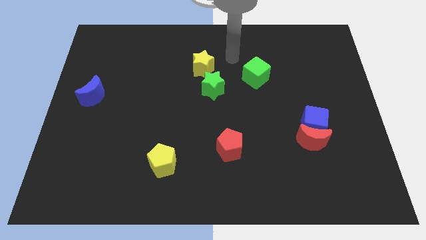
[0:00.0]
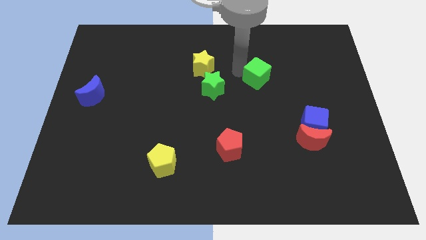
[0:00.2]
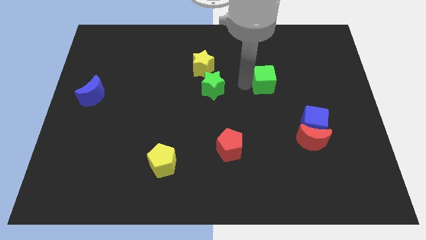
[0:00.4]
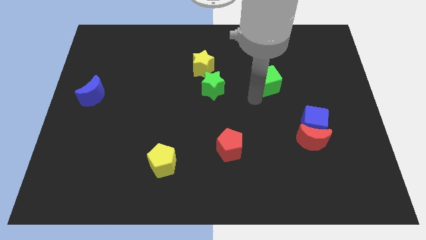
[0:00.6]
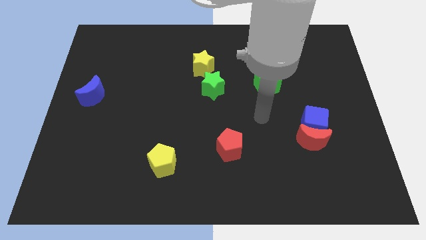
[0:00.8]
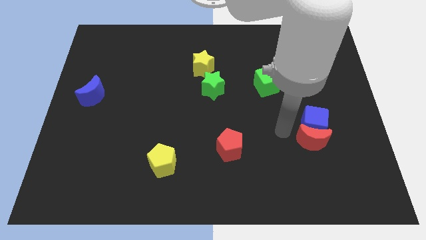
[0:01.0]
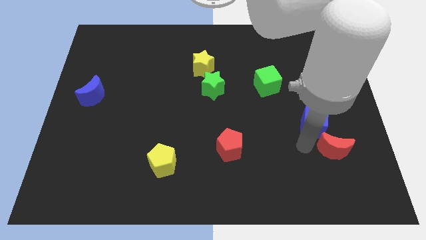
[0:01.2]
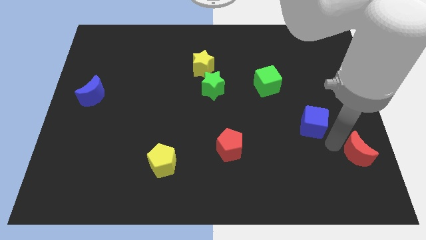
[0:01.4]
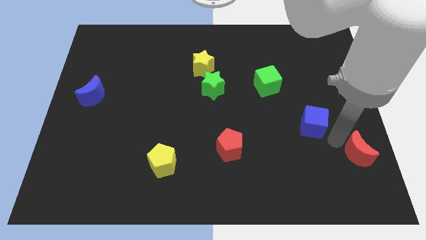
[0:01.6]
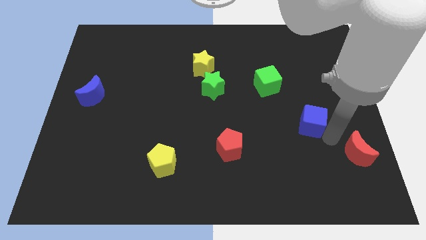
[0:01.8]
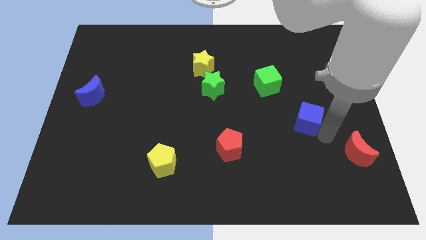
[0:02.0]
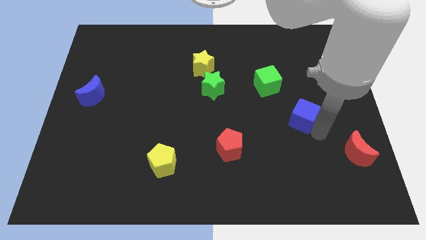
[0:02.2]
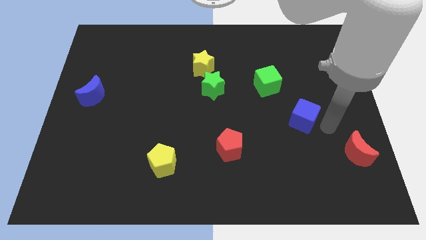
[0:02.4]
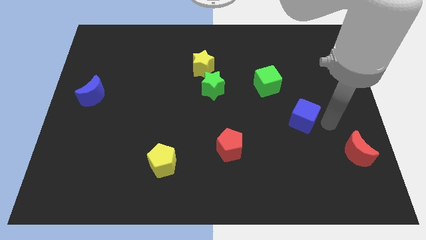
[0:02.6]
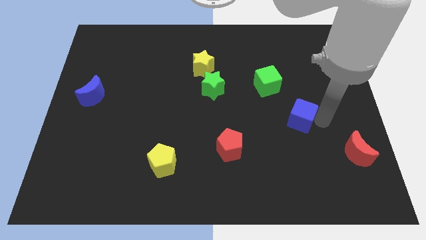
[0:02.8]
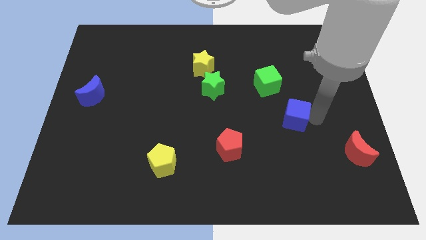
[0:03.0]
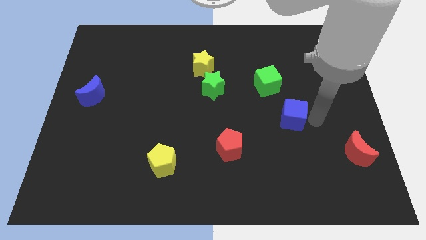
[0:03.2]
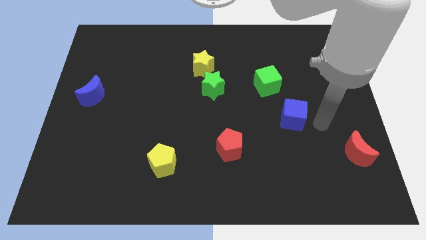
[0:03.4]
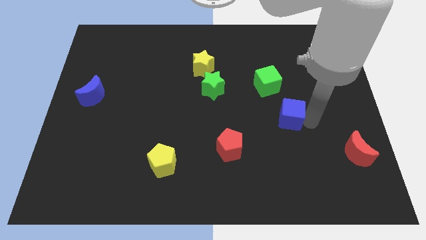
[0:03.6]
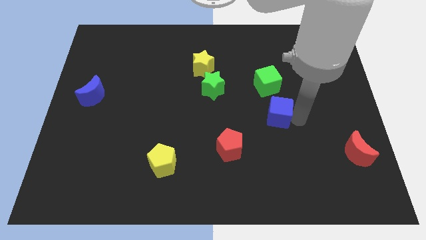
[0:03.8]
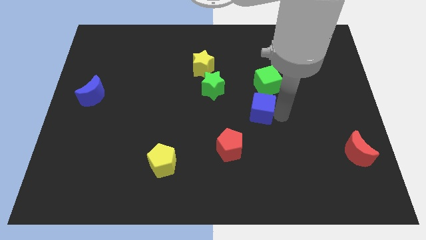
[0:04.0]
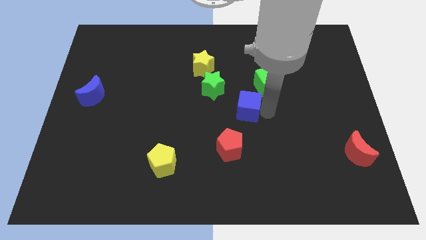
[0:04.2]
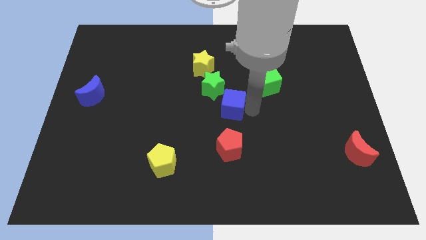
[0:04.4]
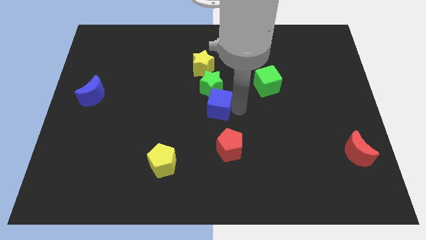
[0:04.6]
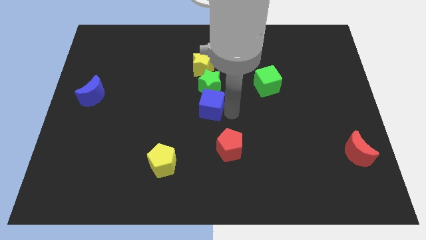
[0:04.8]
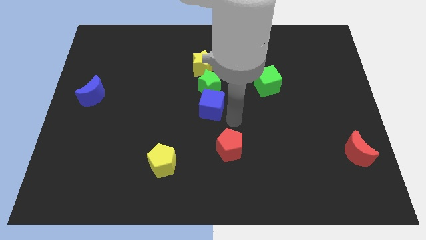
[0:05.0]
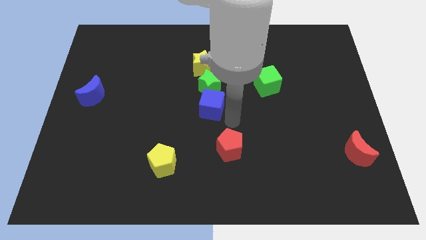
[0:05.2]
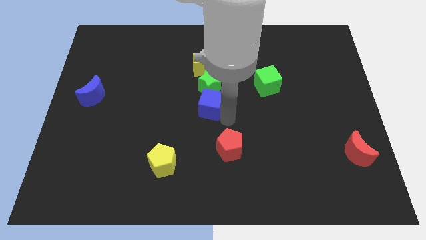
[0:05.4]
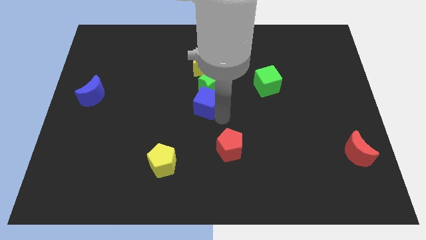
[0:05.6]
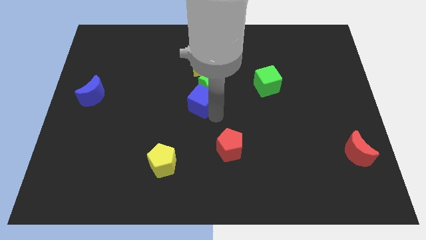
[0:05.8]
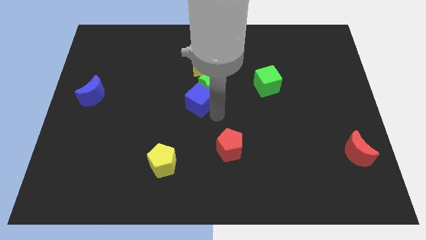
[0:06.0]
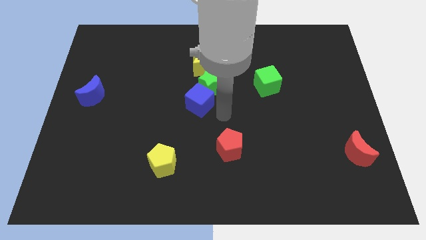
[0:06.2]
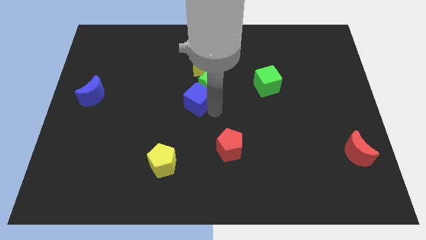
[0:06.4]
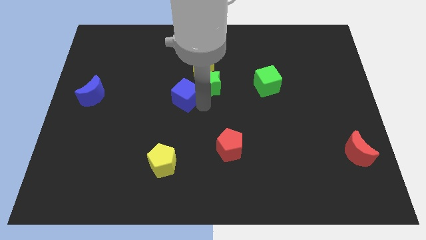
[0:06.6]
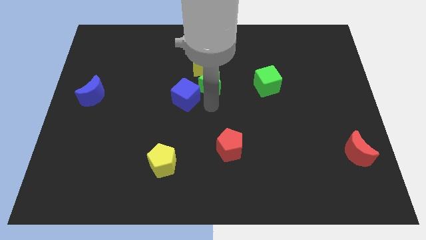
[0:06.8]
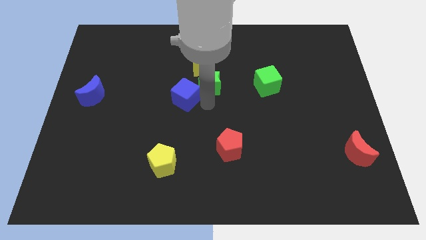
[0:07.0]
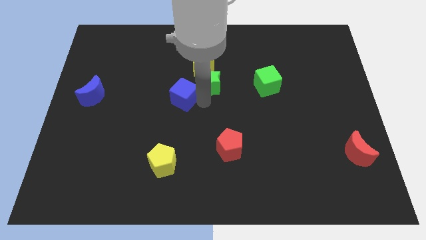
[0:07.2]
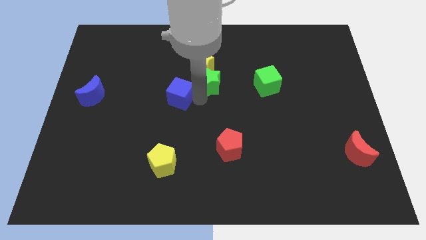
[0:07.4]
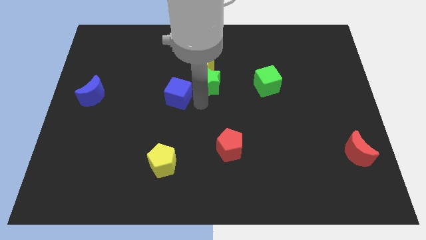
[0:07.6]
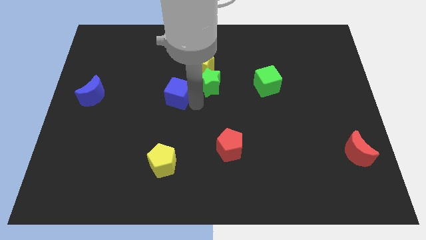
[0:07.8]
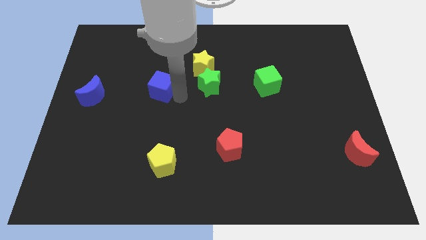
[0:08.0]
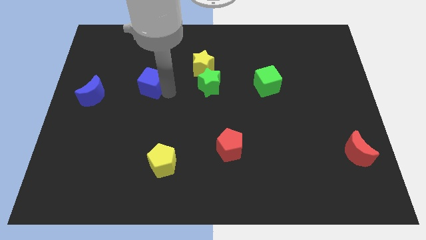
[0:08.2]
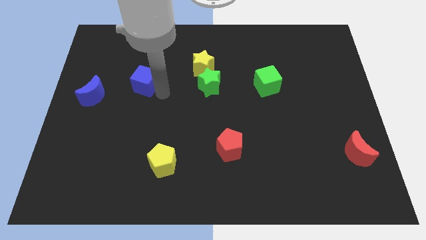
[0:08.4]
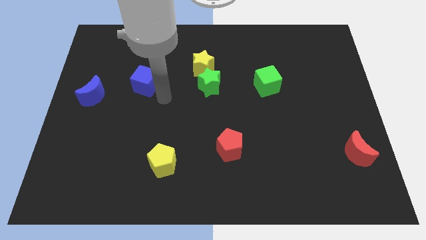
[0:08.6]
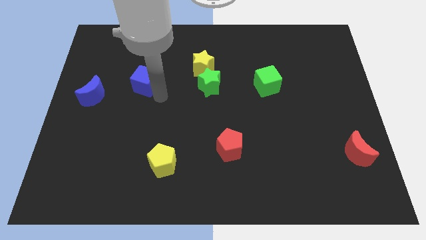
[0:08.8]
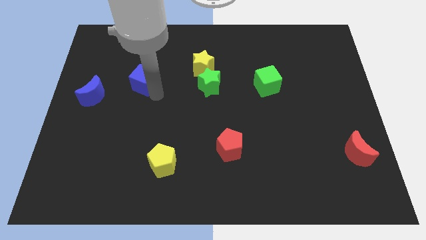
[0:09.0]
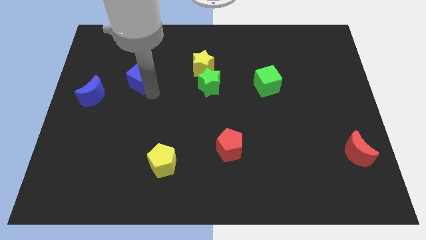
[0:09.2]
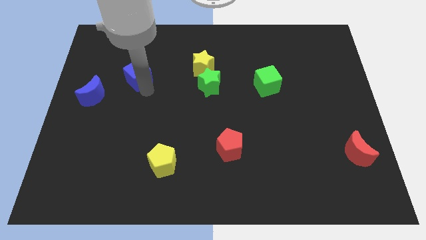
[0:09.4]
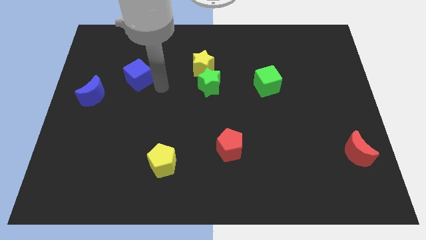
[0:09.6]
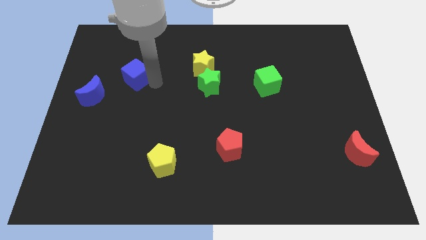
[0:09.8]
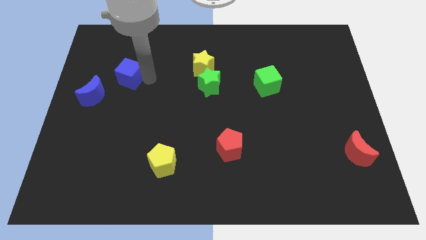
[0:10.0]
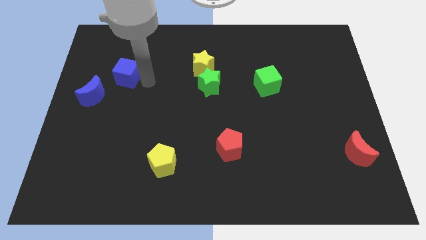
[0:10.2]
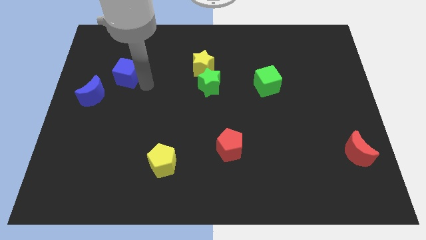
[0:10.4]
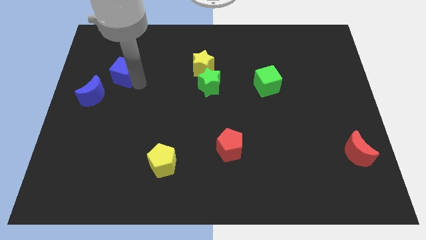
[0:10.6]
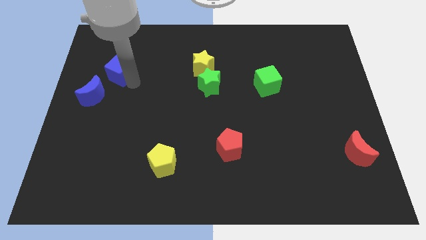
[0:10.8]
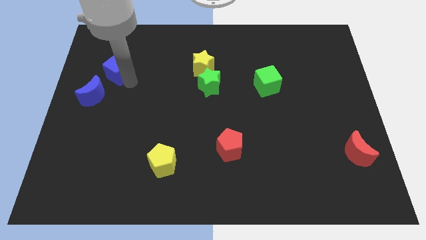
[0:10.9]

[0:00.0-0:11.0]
slide the blue cube to the top of the blue moon

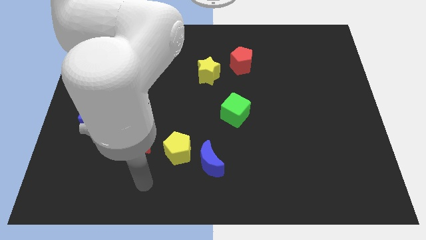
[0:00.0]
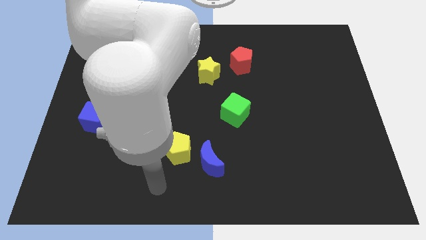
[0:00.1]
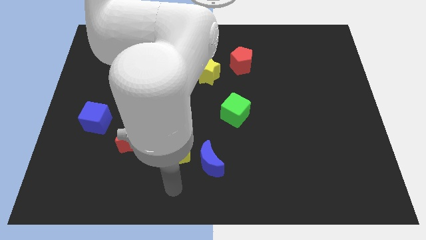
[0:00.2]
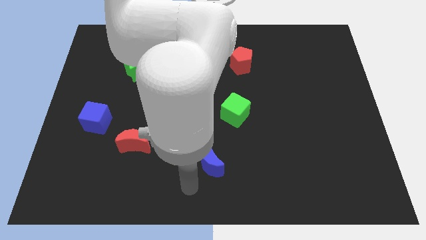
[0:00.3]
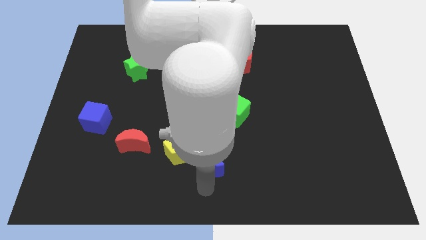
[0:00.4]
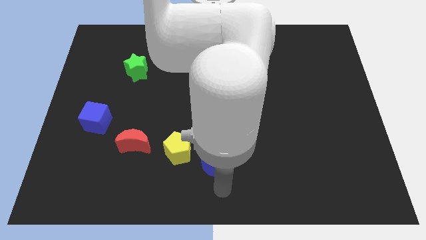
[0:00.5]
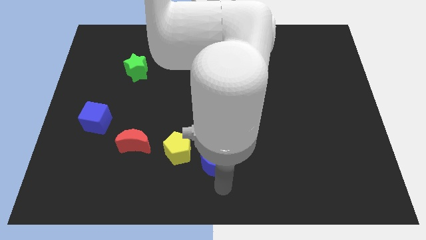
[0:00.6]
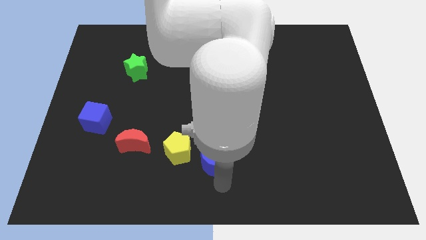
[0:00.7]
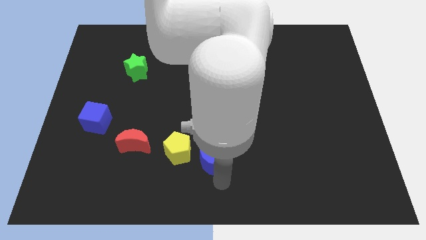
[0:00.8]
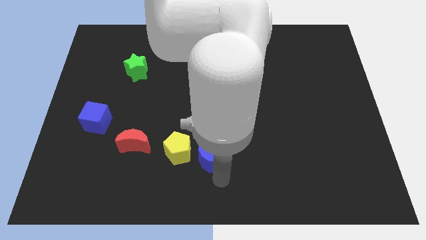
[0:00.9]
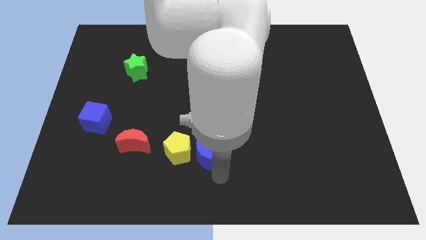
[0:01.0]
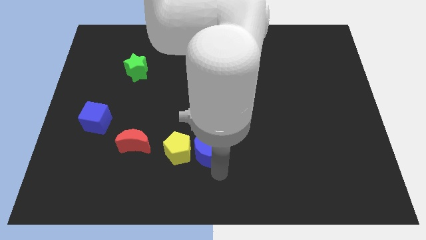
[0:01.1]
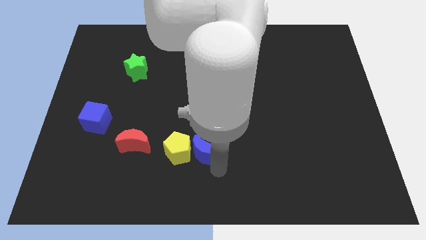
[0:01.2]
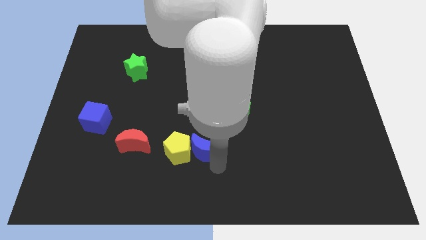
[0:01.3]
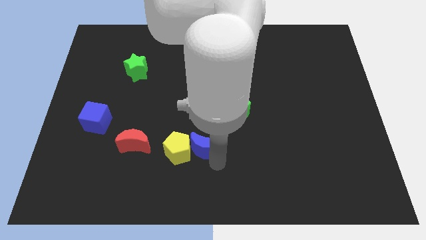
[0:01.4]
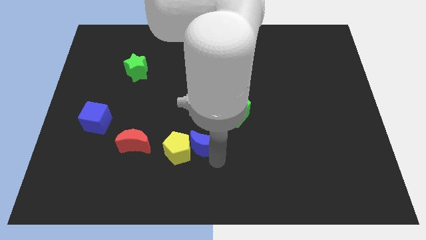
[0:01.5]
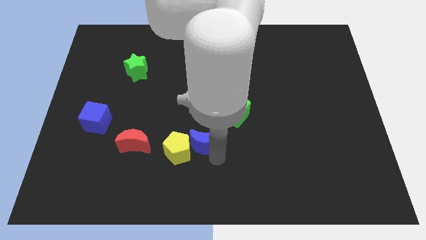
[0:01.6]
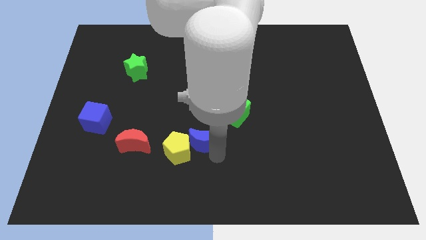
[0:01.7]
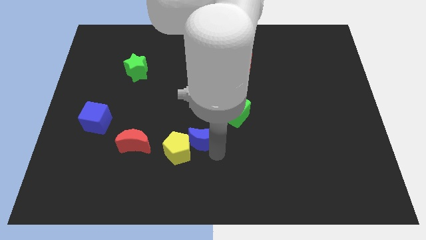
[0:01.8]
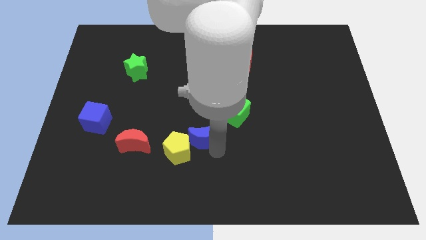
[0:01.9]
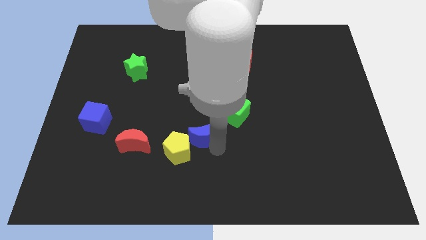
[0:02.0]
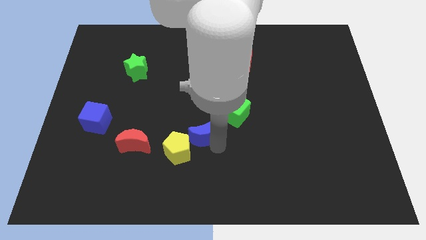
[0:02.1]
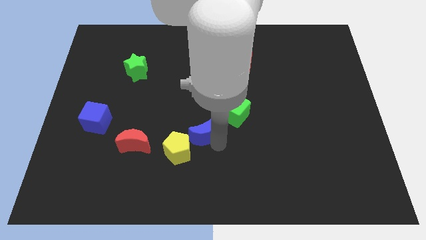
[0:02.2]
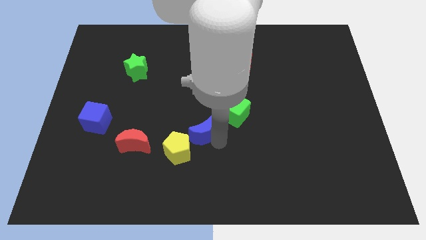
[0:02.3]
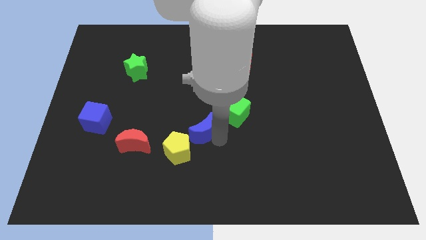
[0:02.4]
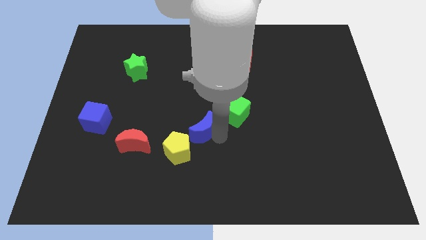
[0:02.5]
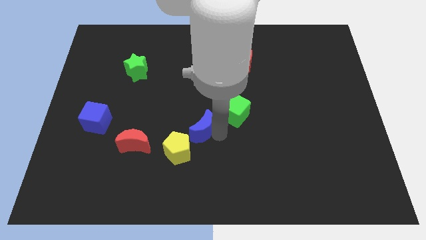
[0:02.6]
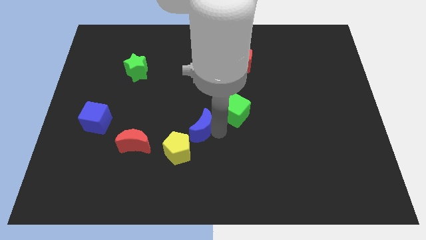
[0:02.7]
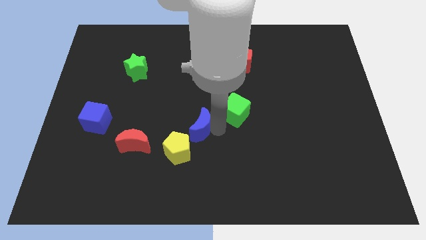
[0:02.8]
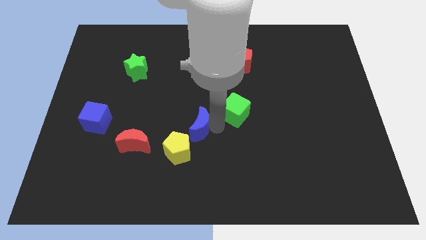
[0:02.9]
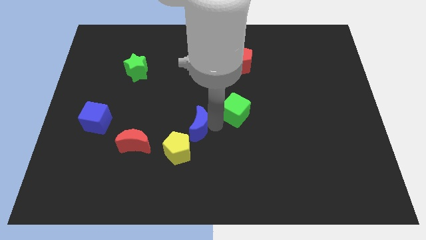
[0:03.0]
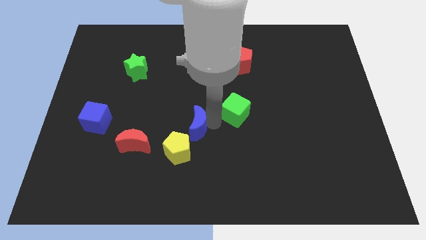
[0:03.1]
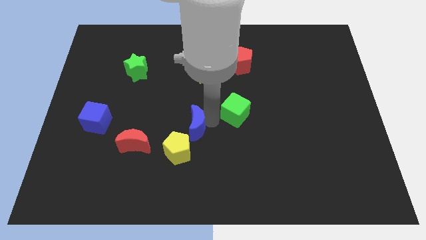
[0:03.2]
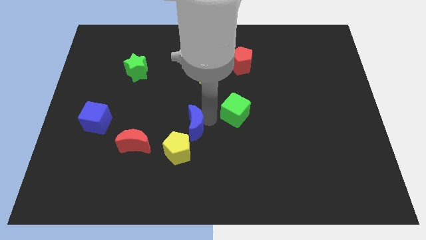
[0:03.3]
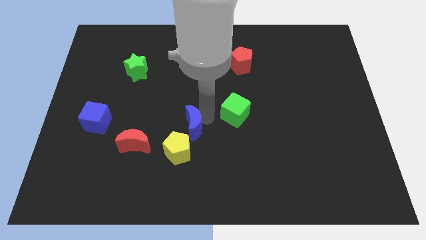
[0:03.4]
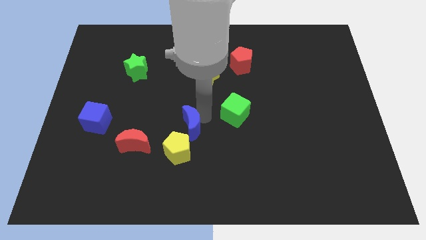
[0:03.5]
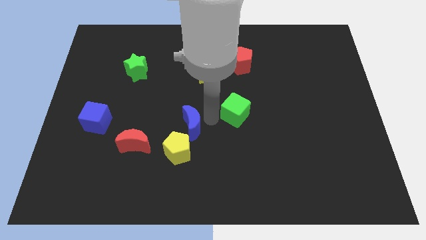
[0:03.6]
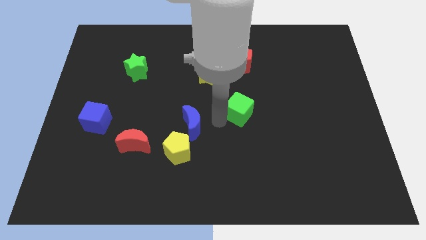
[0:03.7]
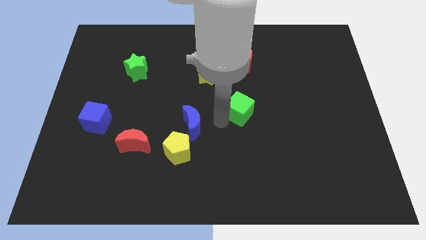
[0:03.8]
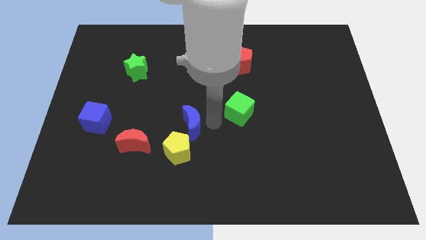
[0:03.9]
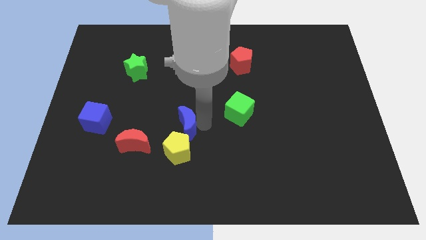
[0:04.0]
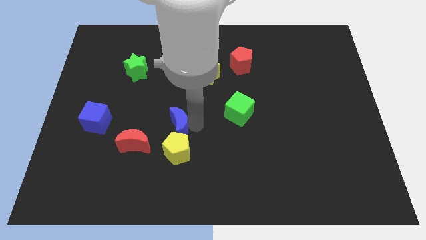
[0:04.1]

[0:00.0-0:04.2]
push the blue moon to the top left of the yellow pentagon
